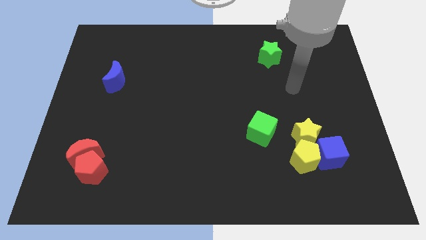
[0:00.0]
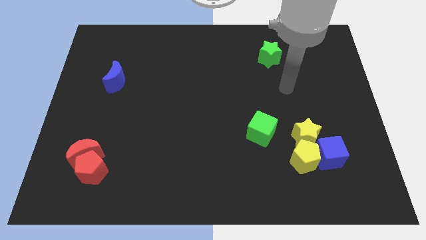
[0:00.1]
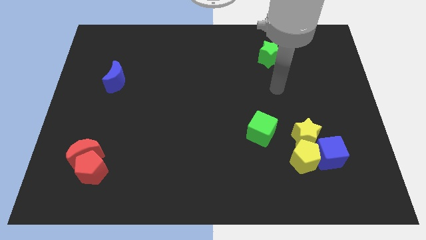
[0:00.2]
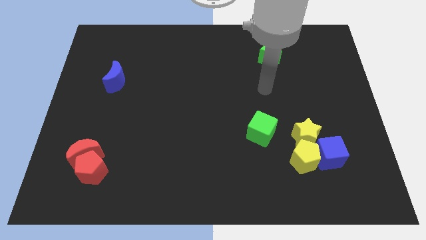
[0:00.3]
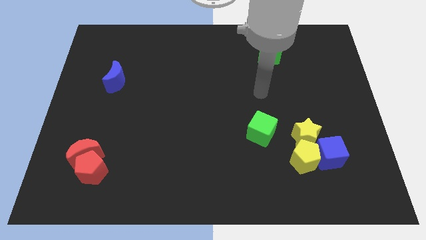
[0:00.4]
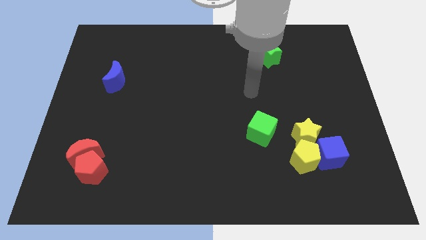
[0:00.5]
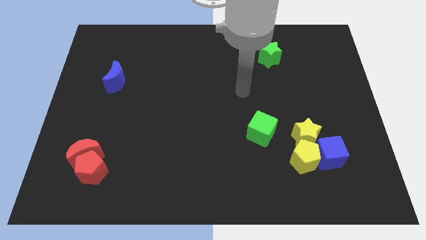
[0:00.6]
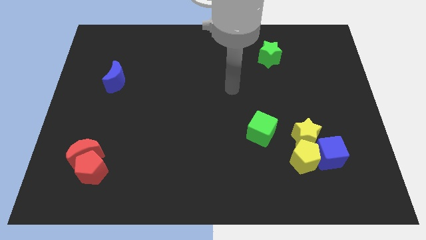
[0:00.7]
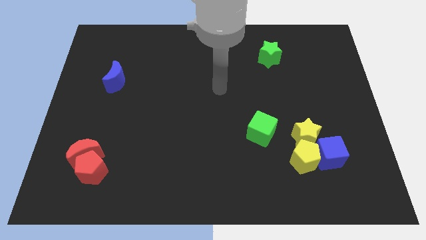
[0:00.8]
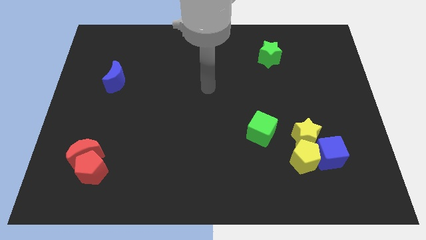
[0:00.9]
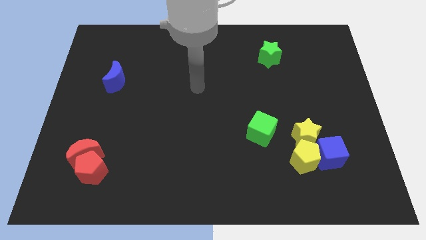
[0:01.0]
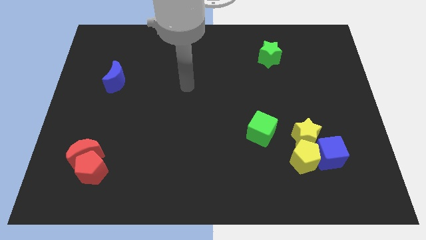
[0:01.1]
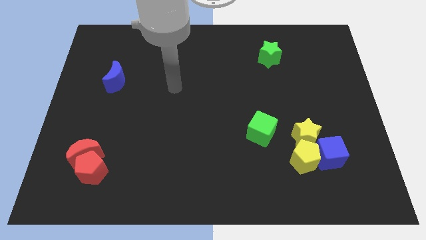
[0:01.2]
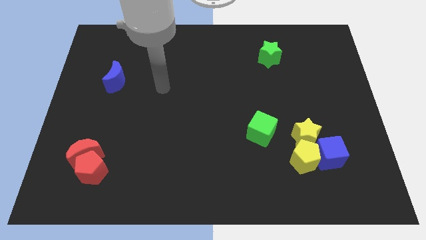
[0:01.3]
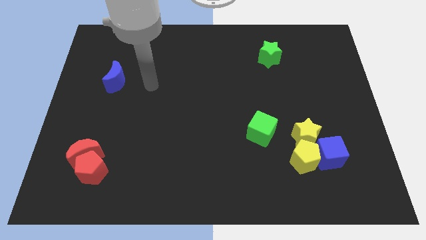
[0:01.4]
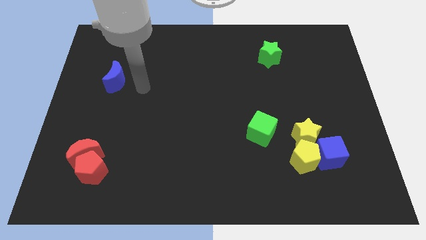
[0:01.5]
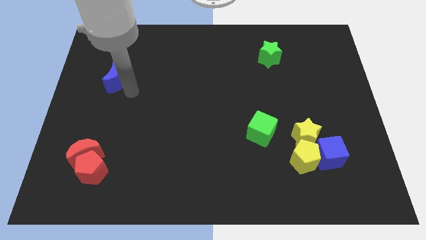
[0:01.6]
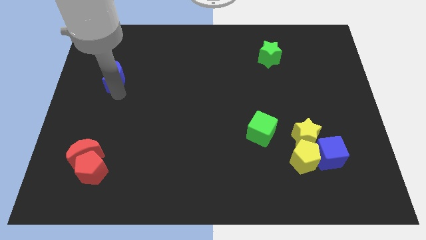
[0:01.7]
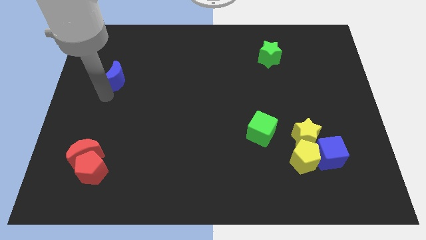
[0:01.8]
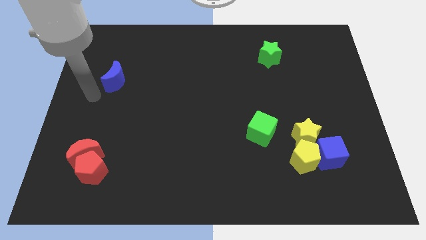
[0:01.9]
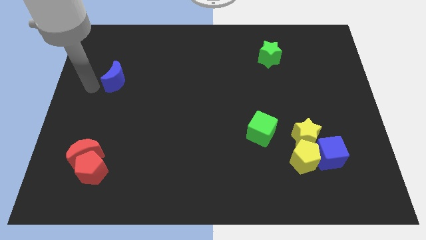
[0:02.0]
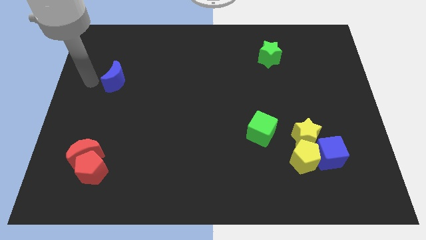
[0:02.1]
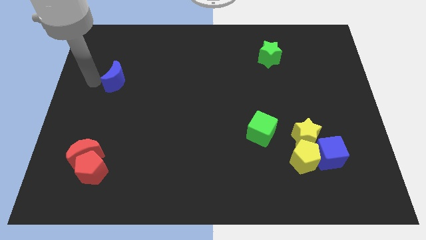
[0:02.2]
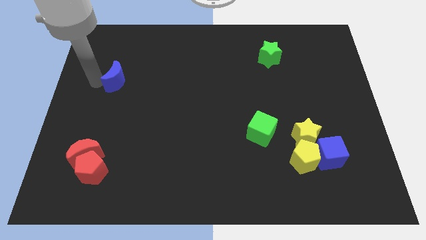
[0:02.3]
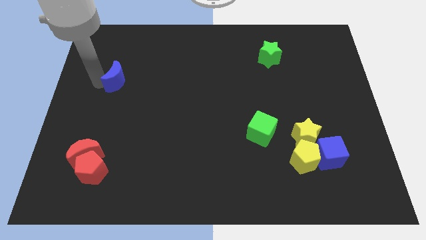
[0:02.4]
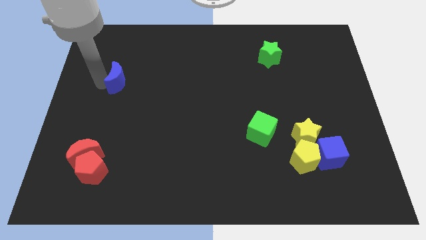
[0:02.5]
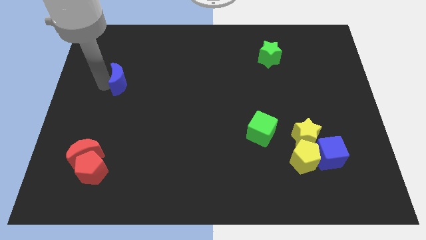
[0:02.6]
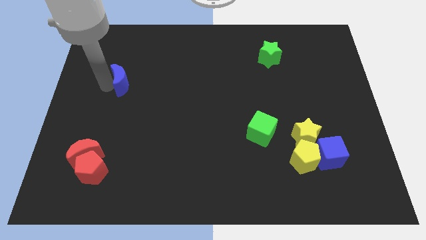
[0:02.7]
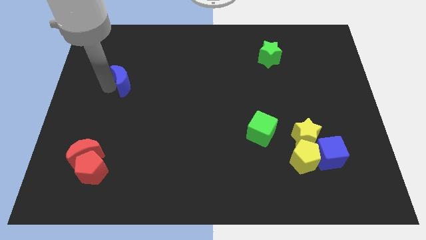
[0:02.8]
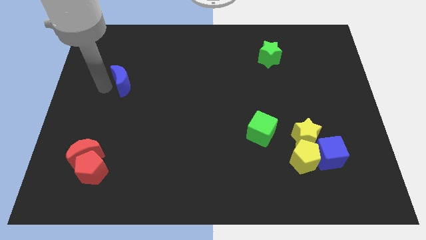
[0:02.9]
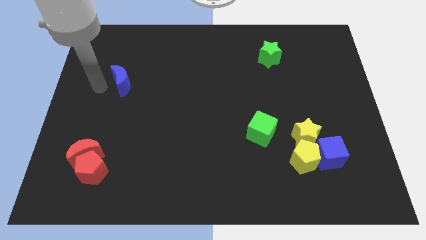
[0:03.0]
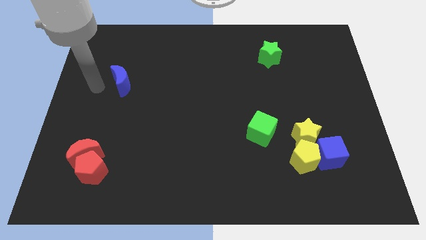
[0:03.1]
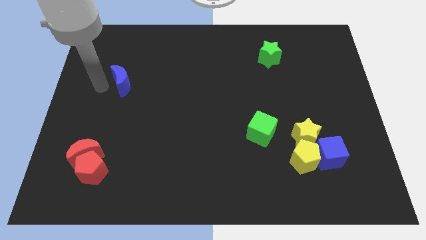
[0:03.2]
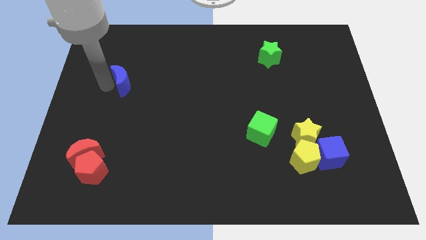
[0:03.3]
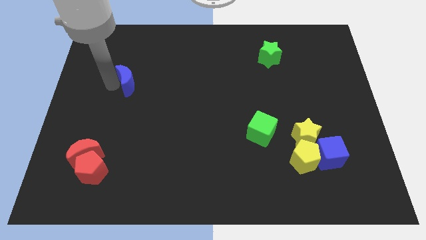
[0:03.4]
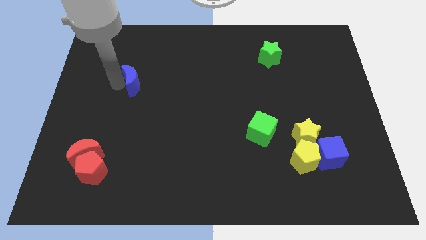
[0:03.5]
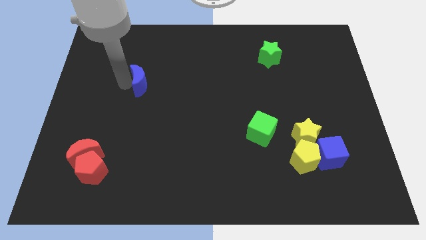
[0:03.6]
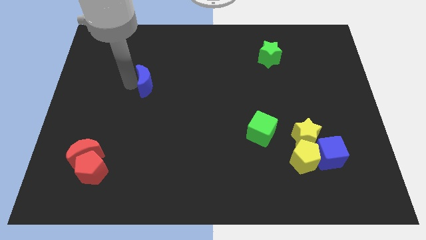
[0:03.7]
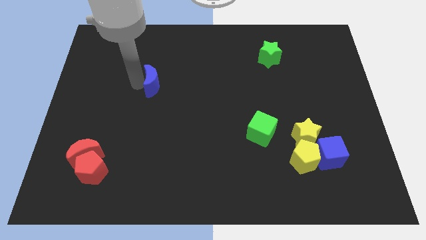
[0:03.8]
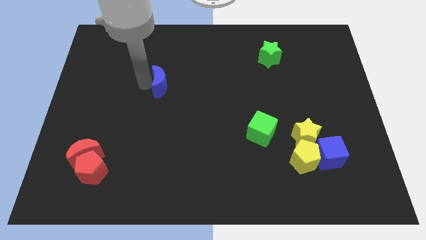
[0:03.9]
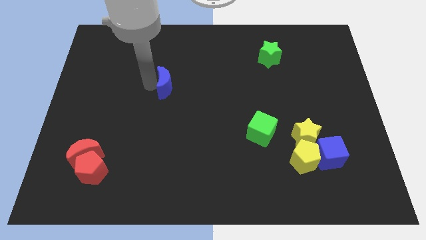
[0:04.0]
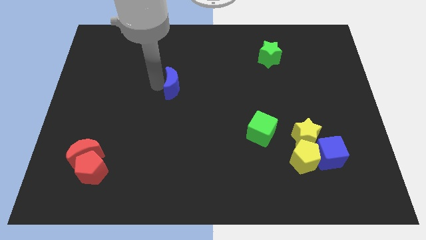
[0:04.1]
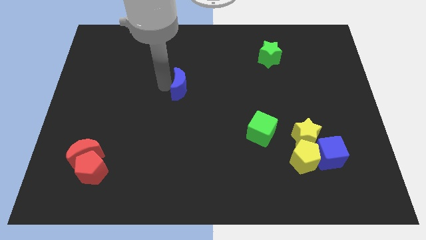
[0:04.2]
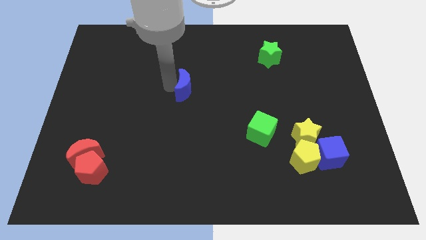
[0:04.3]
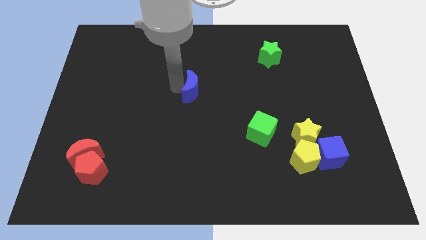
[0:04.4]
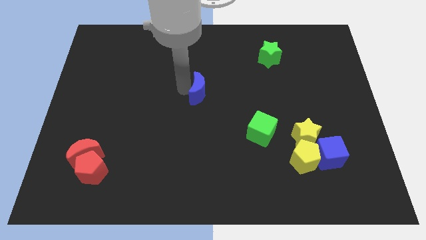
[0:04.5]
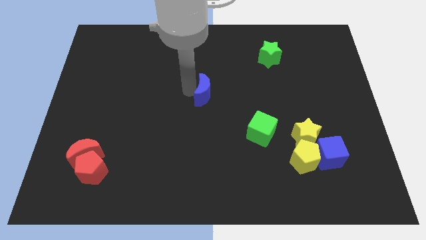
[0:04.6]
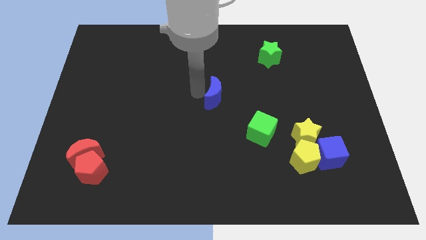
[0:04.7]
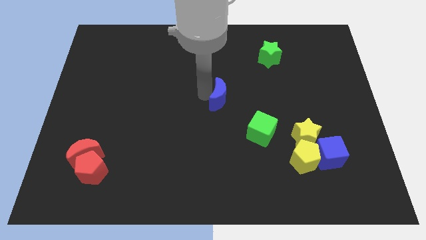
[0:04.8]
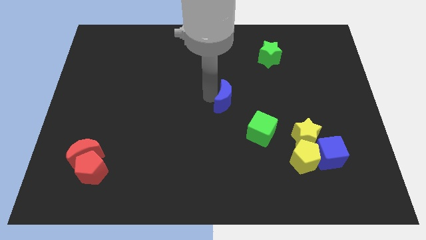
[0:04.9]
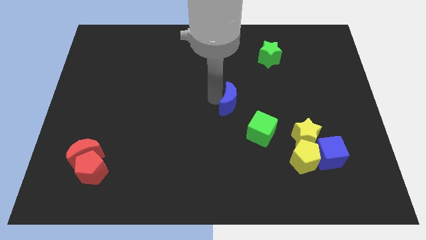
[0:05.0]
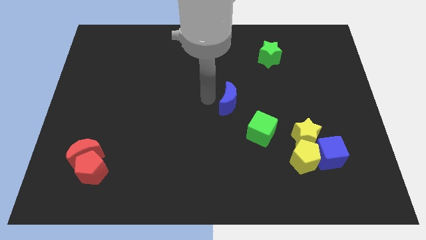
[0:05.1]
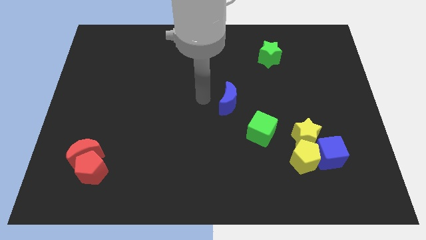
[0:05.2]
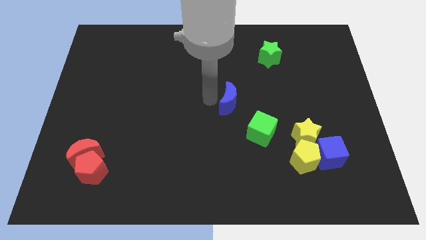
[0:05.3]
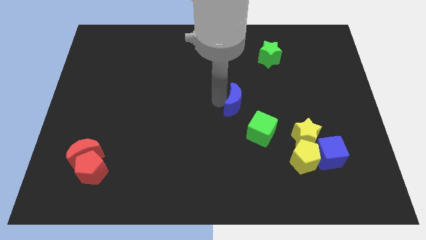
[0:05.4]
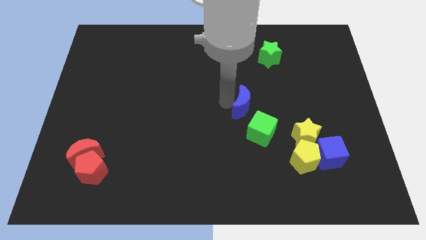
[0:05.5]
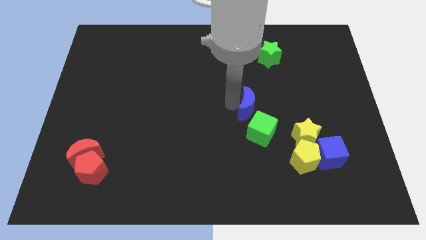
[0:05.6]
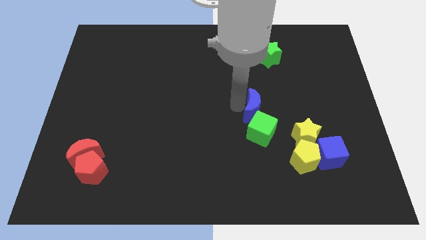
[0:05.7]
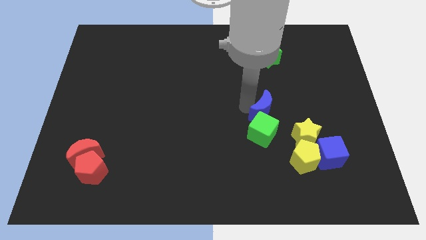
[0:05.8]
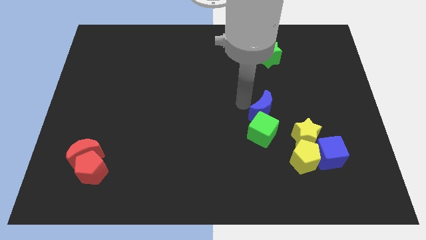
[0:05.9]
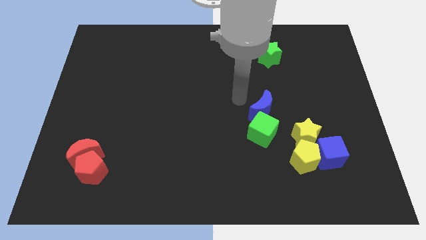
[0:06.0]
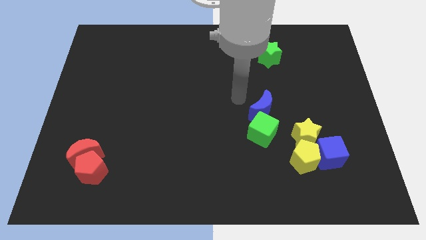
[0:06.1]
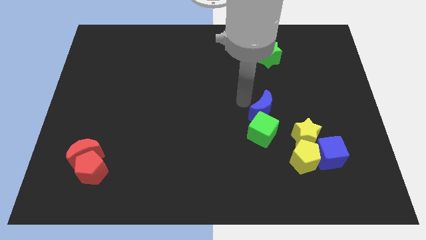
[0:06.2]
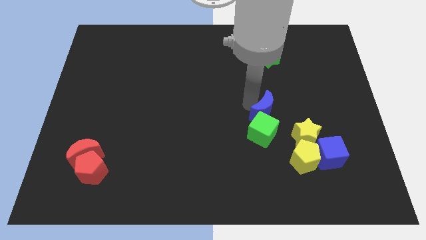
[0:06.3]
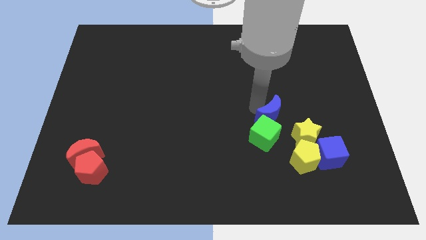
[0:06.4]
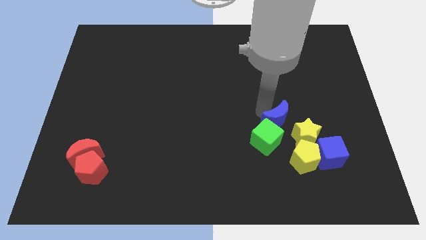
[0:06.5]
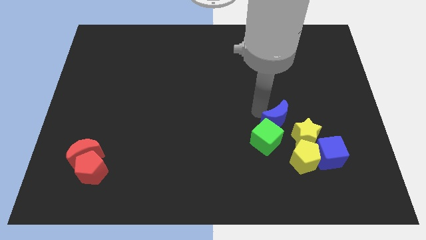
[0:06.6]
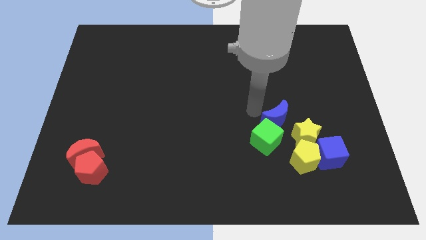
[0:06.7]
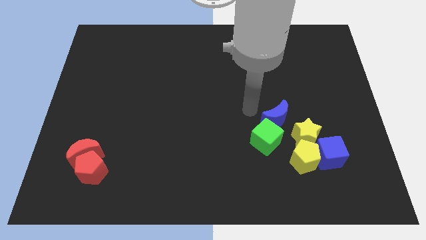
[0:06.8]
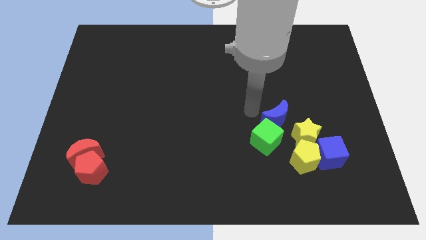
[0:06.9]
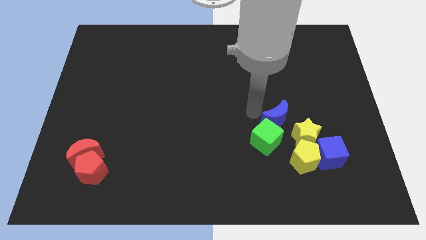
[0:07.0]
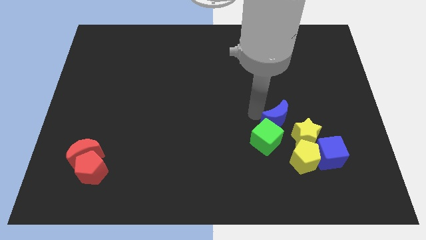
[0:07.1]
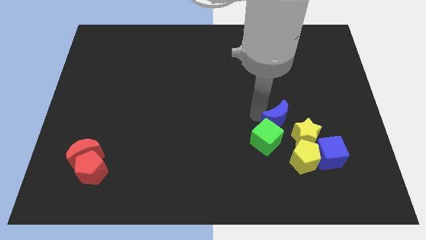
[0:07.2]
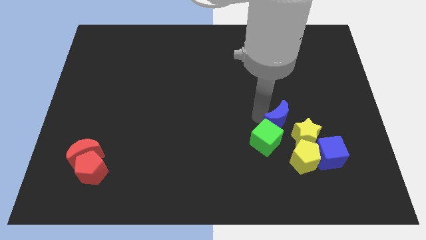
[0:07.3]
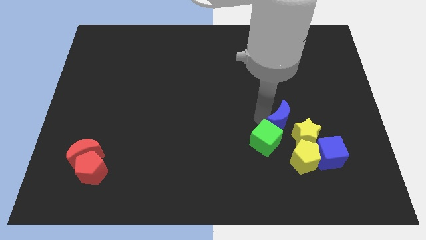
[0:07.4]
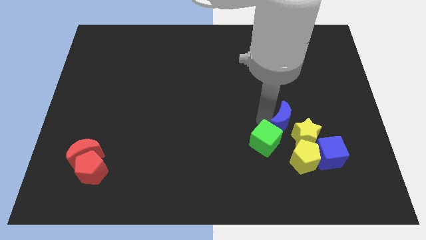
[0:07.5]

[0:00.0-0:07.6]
push the blue moon close to the yellow star
